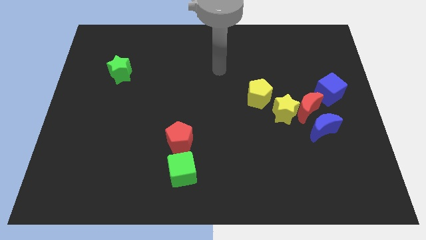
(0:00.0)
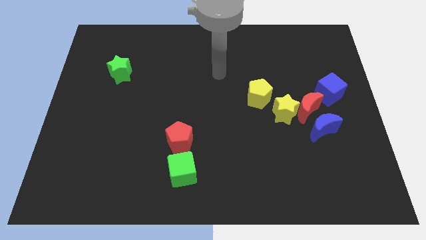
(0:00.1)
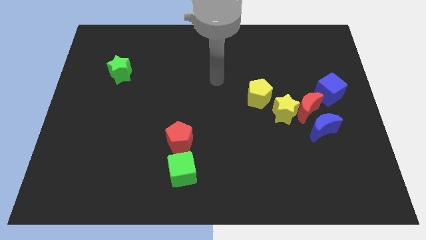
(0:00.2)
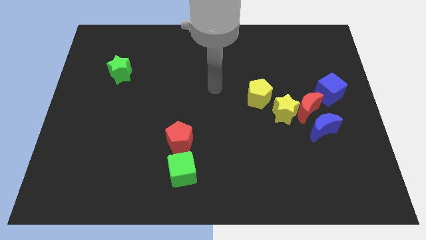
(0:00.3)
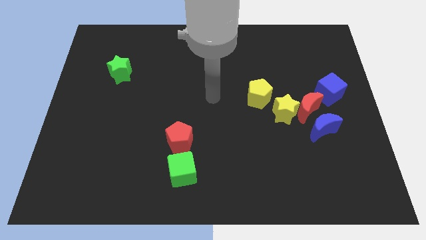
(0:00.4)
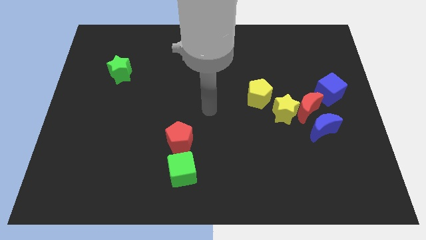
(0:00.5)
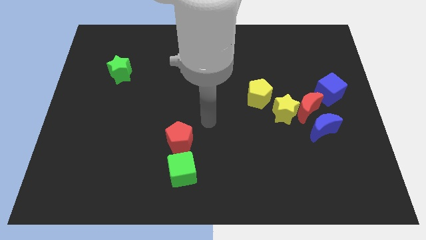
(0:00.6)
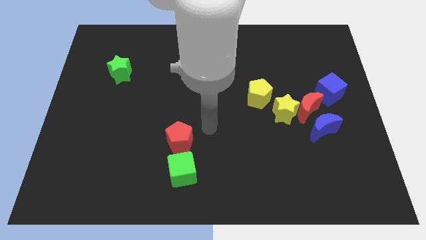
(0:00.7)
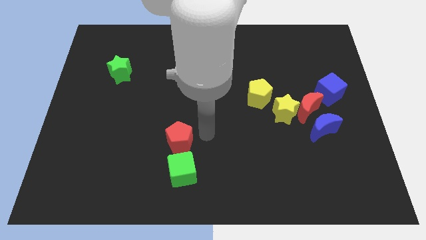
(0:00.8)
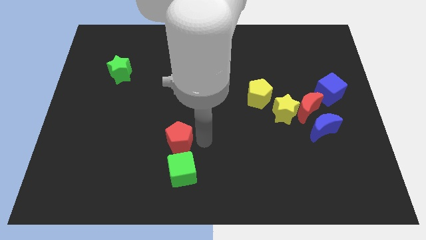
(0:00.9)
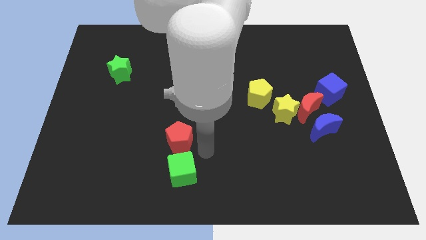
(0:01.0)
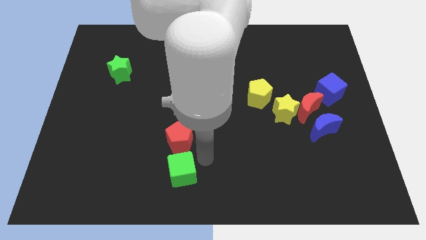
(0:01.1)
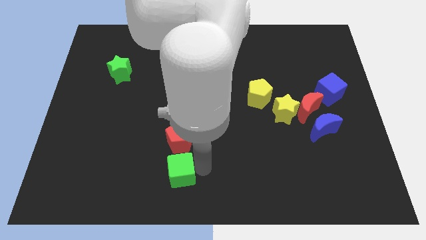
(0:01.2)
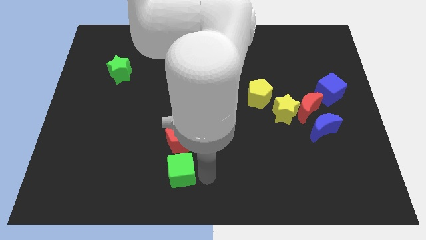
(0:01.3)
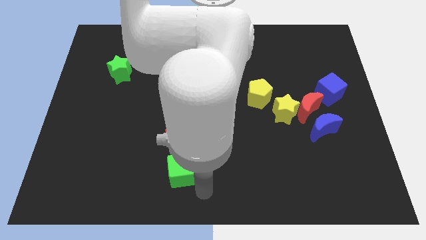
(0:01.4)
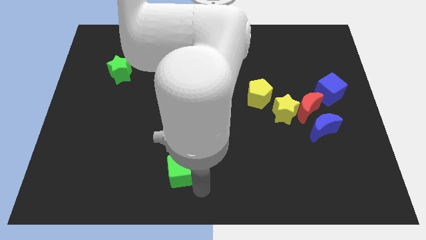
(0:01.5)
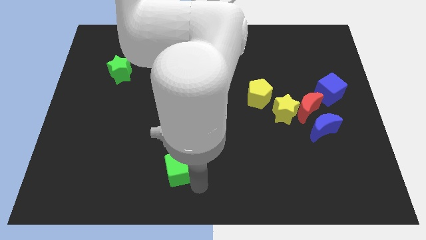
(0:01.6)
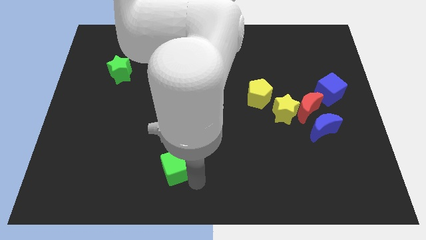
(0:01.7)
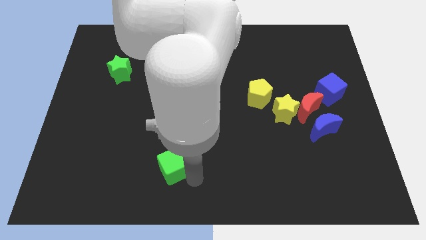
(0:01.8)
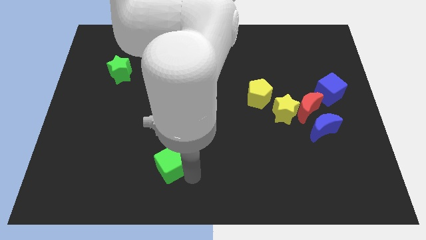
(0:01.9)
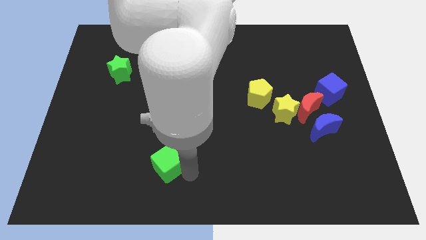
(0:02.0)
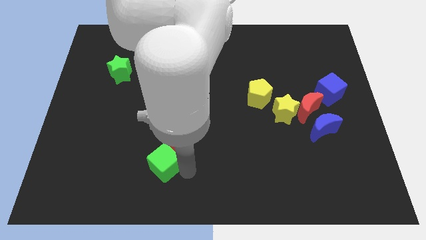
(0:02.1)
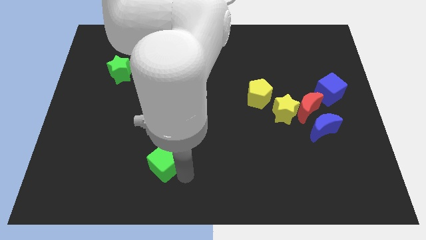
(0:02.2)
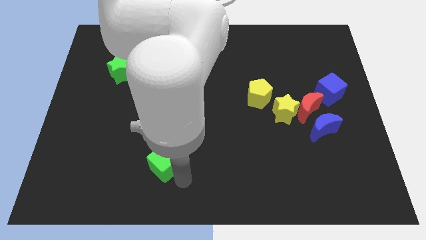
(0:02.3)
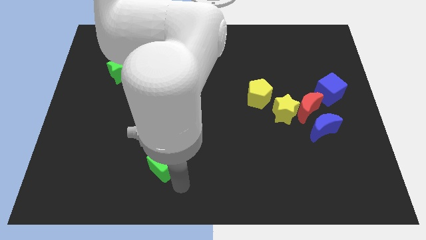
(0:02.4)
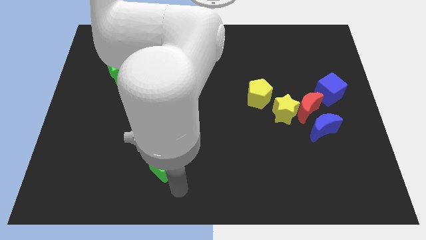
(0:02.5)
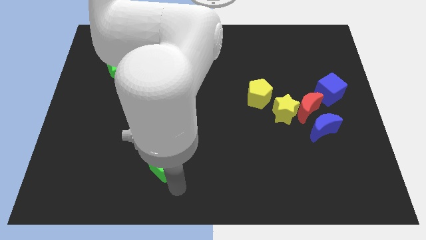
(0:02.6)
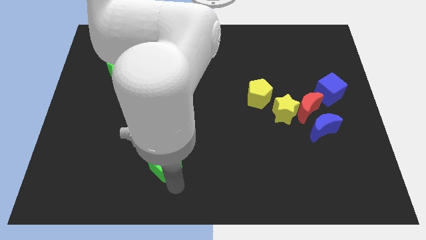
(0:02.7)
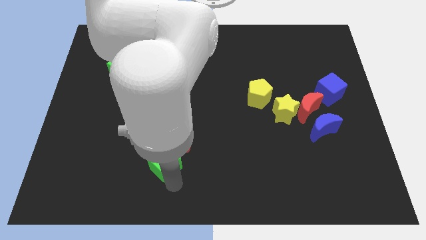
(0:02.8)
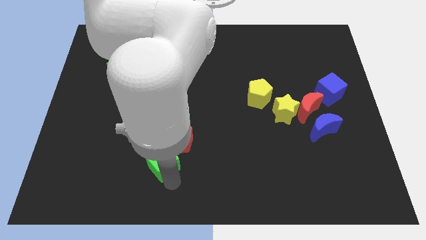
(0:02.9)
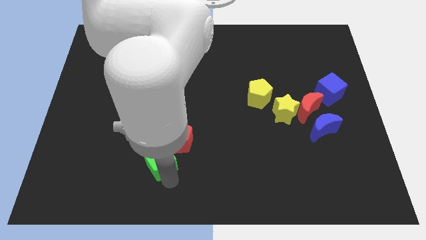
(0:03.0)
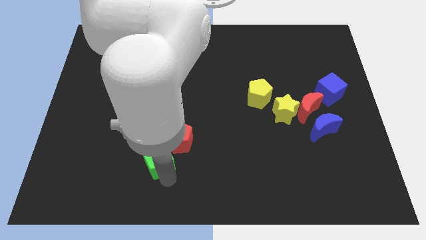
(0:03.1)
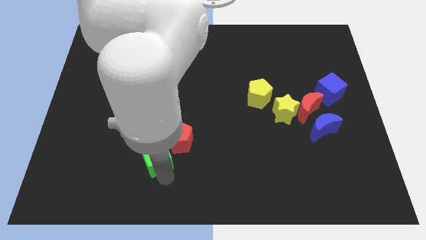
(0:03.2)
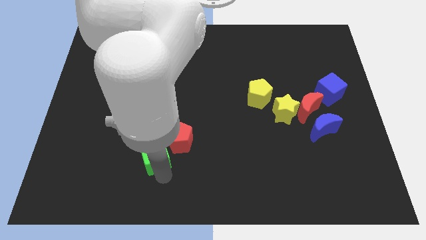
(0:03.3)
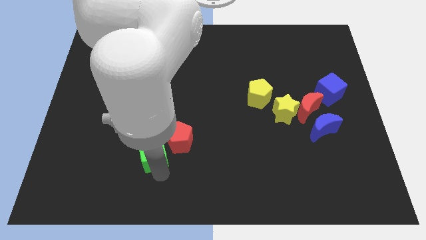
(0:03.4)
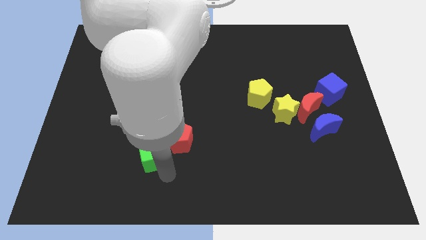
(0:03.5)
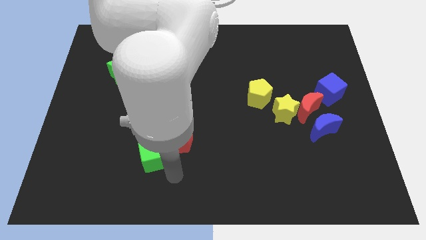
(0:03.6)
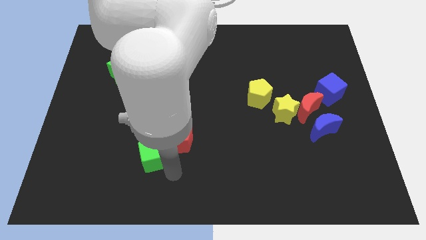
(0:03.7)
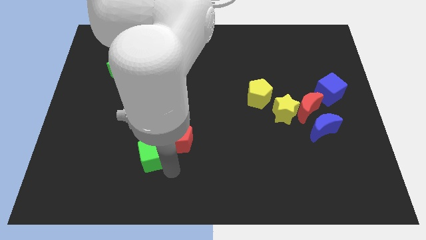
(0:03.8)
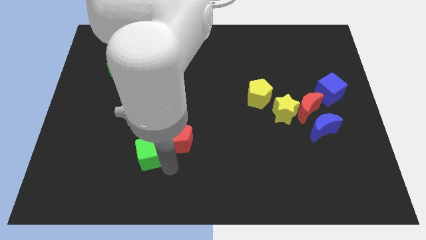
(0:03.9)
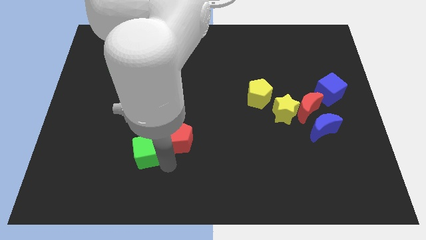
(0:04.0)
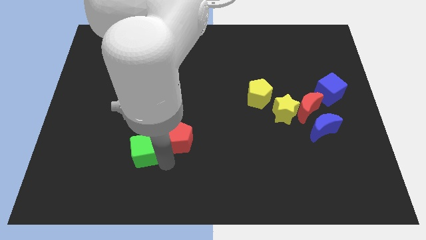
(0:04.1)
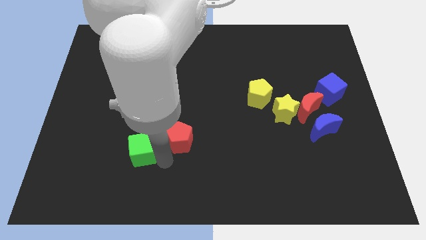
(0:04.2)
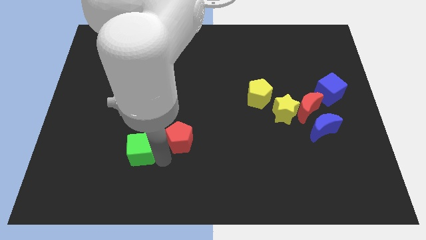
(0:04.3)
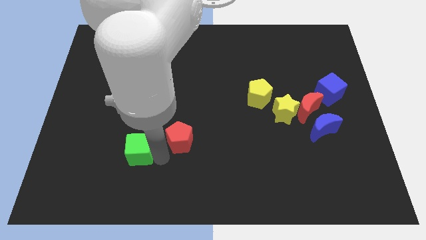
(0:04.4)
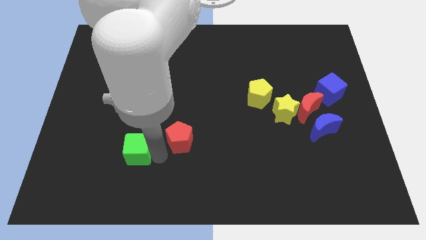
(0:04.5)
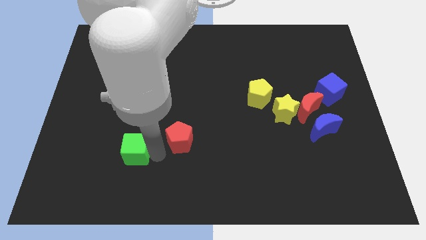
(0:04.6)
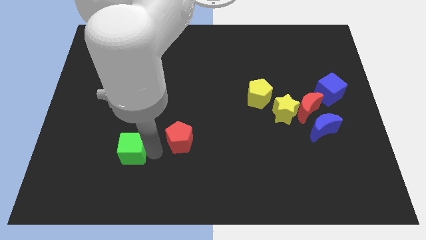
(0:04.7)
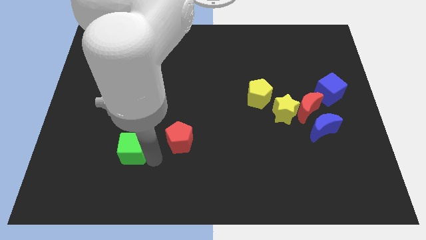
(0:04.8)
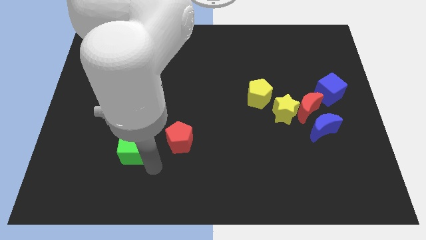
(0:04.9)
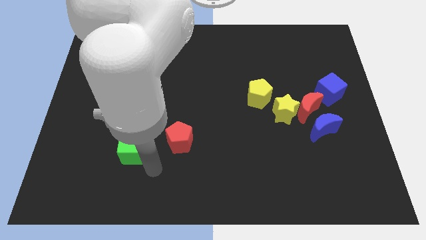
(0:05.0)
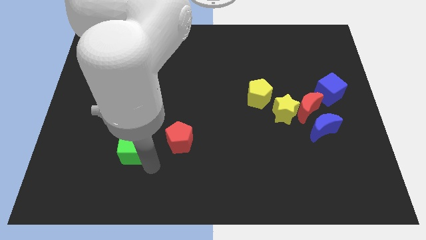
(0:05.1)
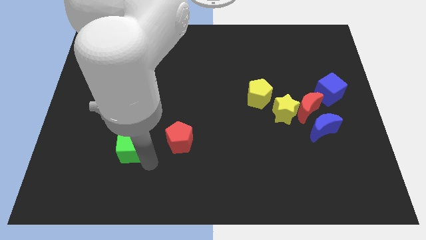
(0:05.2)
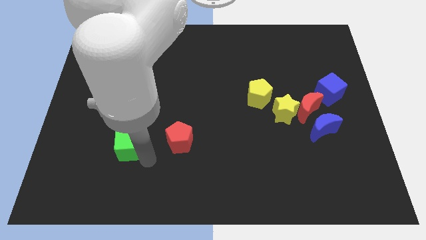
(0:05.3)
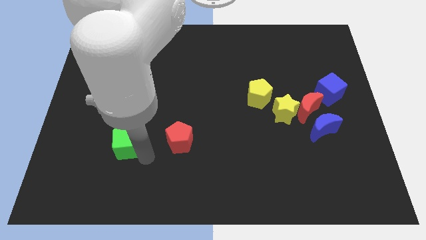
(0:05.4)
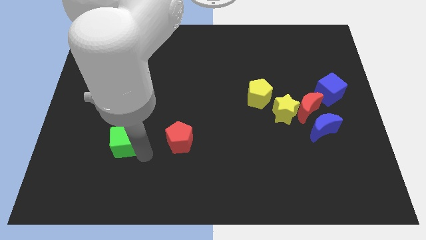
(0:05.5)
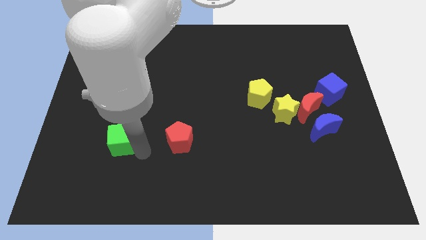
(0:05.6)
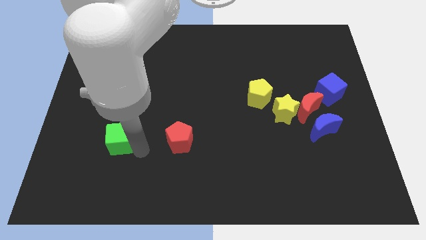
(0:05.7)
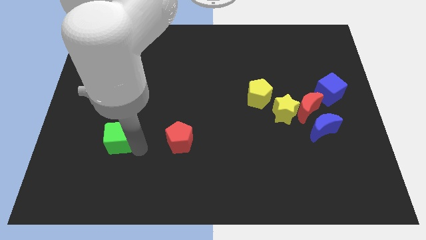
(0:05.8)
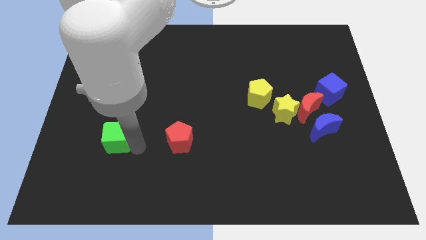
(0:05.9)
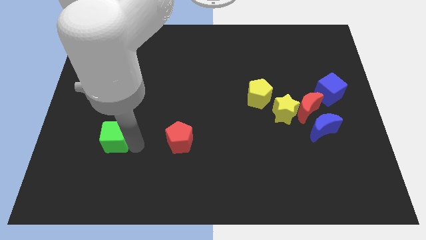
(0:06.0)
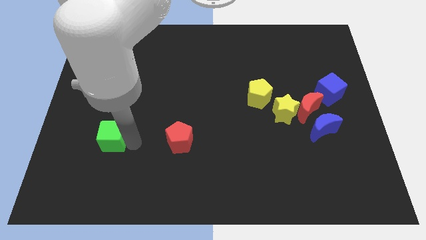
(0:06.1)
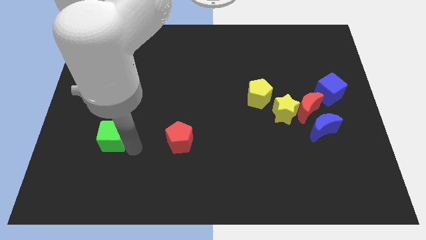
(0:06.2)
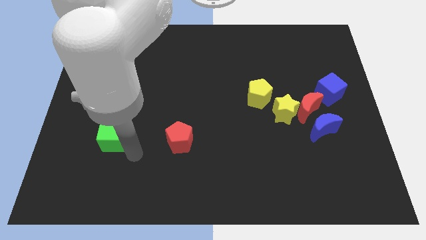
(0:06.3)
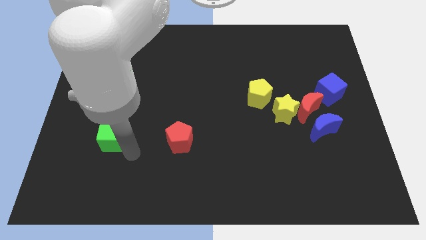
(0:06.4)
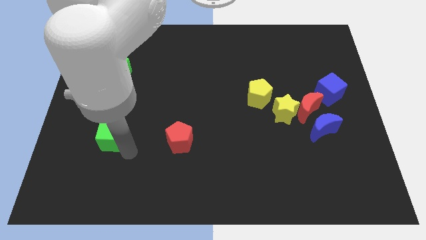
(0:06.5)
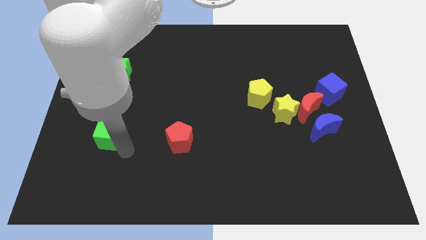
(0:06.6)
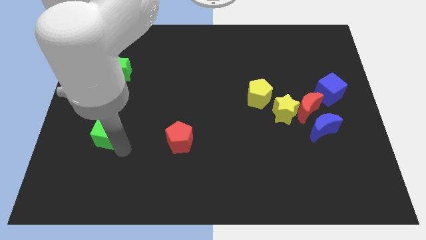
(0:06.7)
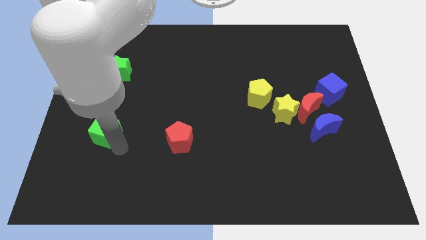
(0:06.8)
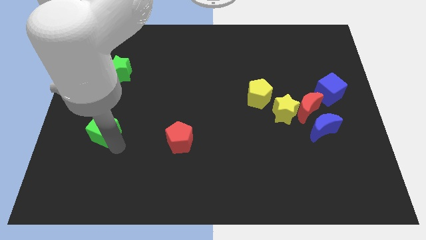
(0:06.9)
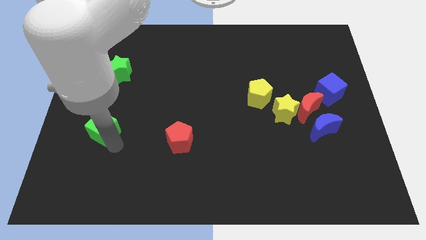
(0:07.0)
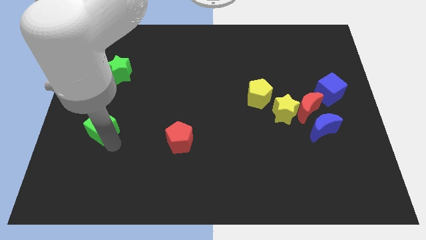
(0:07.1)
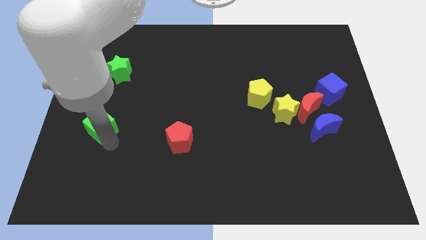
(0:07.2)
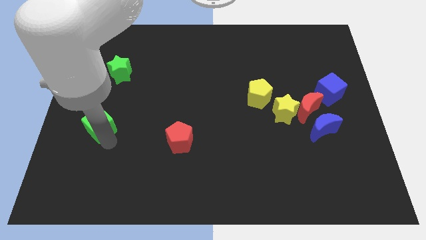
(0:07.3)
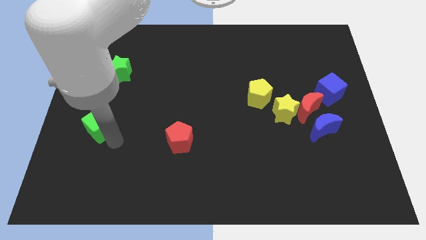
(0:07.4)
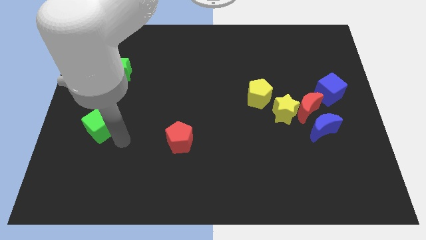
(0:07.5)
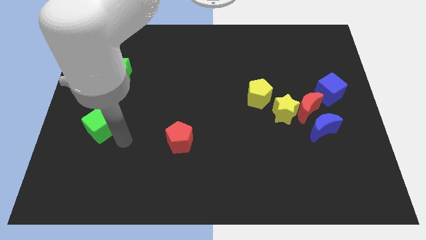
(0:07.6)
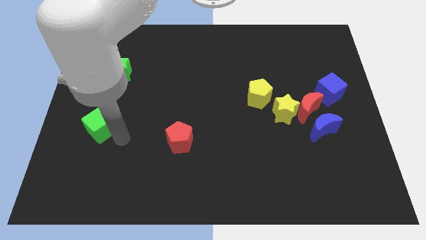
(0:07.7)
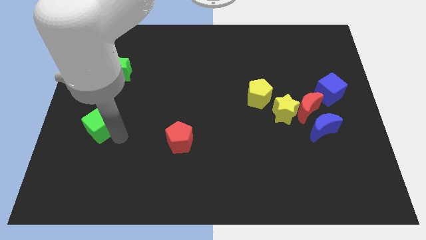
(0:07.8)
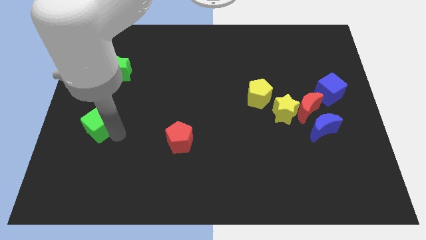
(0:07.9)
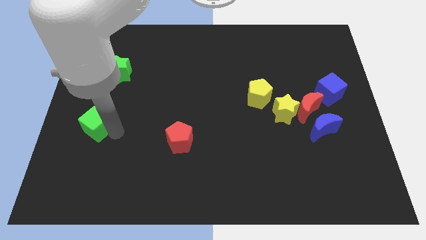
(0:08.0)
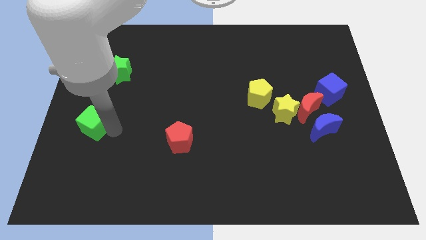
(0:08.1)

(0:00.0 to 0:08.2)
push the green cube to the left side
